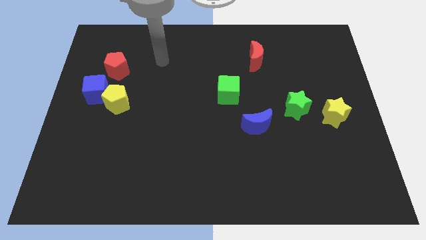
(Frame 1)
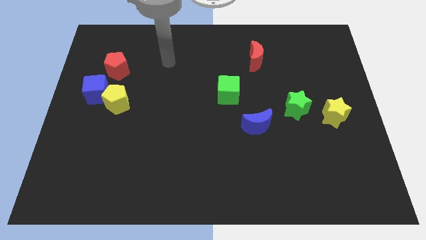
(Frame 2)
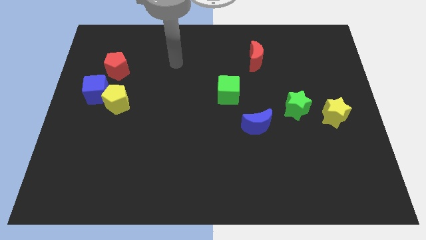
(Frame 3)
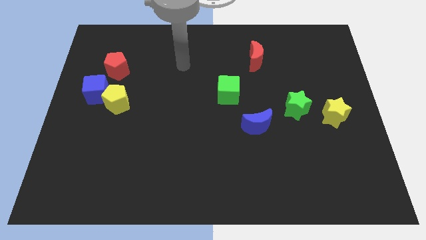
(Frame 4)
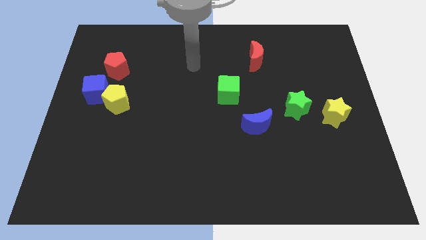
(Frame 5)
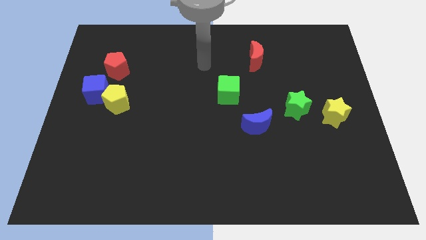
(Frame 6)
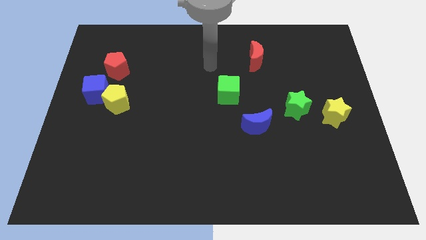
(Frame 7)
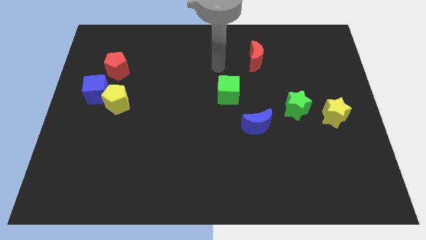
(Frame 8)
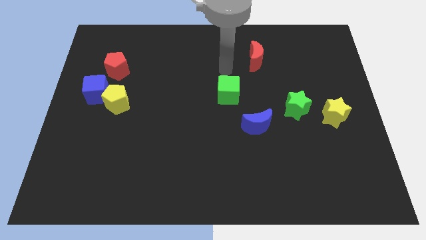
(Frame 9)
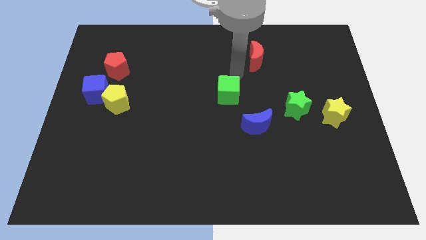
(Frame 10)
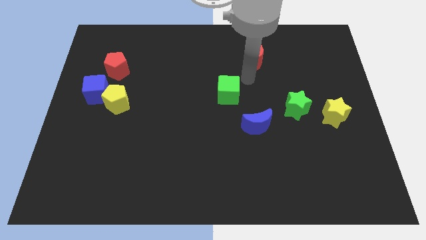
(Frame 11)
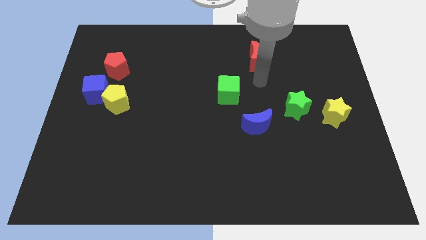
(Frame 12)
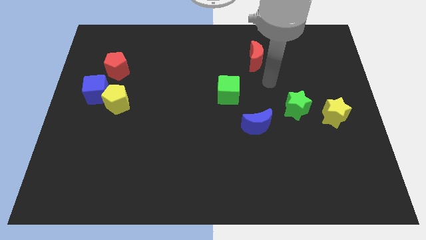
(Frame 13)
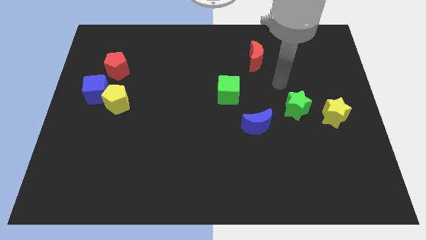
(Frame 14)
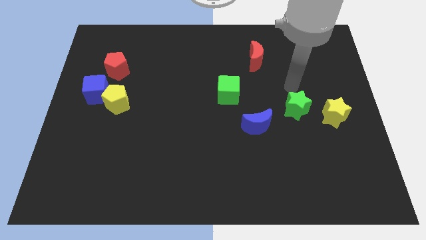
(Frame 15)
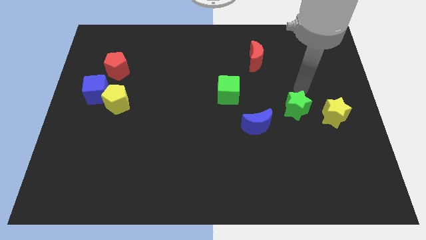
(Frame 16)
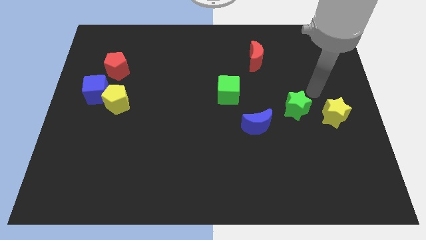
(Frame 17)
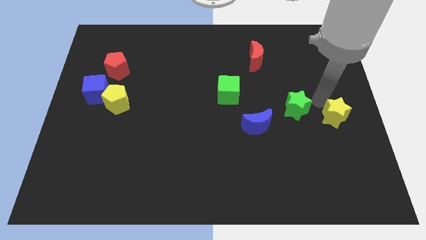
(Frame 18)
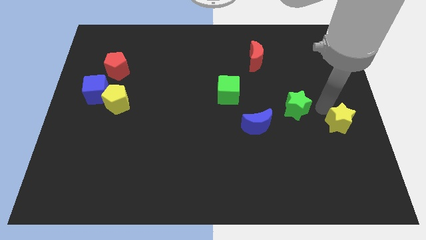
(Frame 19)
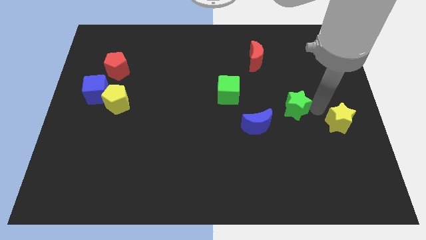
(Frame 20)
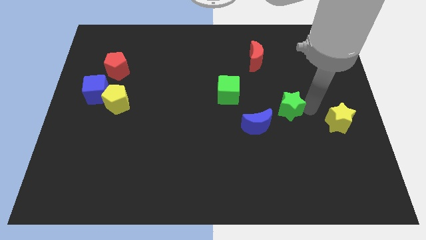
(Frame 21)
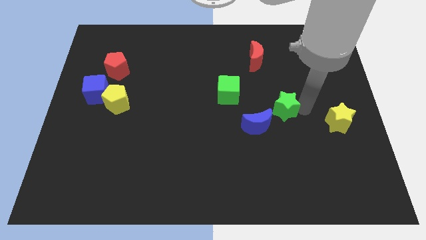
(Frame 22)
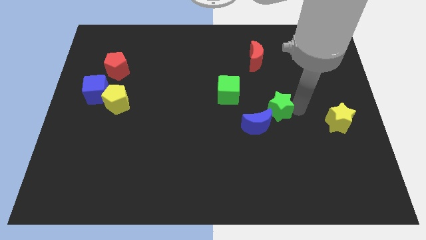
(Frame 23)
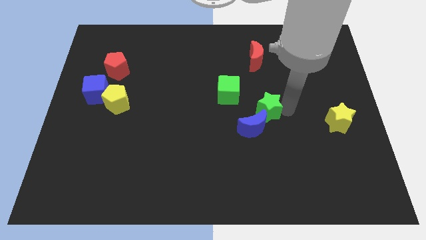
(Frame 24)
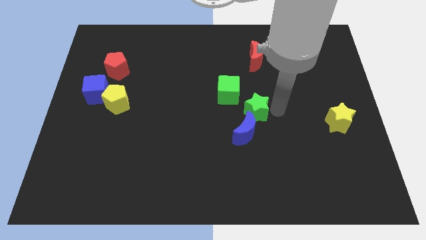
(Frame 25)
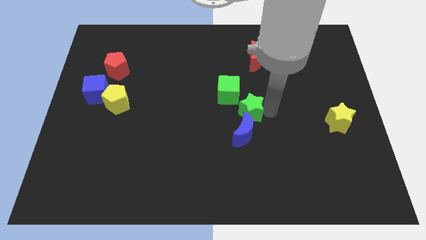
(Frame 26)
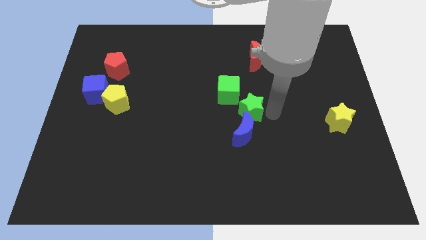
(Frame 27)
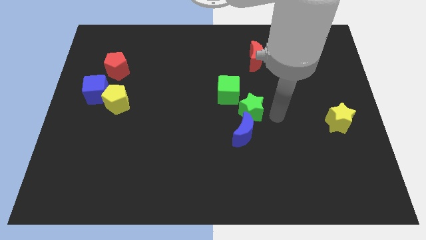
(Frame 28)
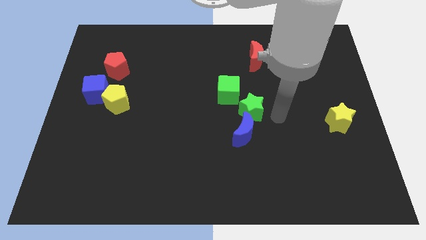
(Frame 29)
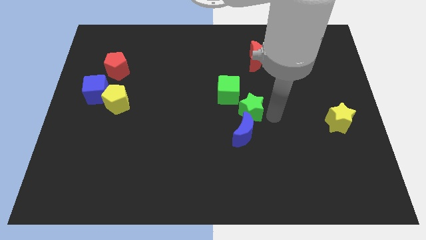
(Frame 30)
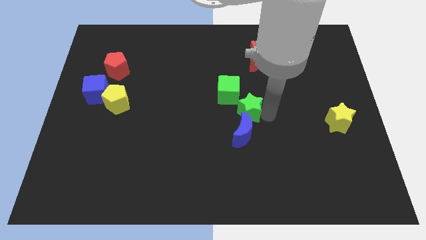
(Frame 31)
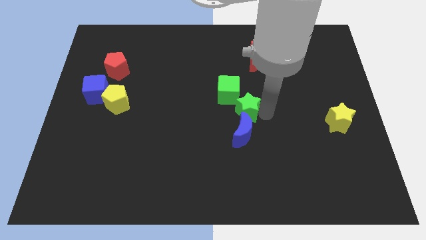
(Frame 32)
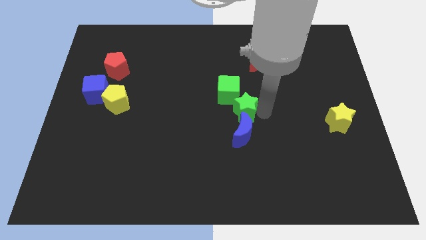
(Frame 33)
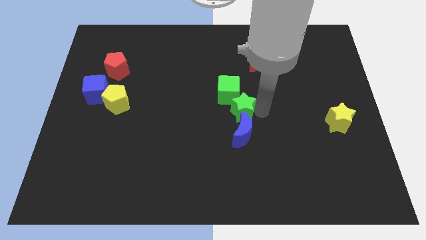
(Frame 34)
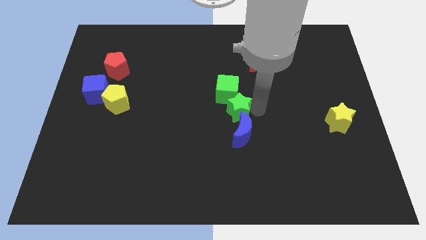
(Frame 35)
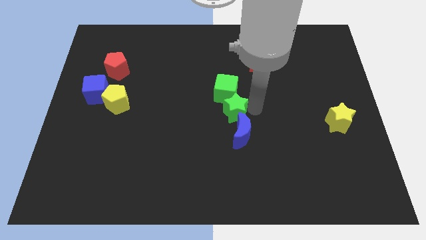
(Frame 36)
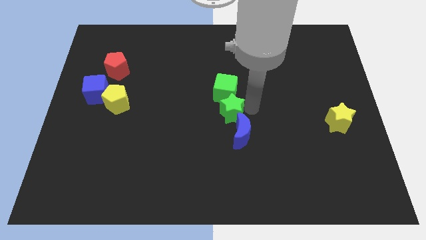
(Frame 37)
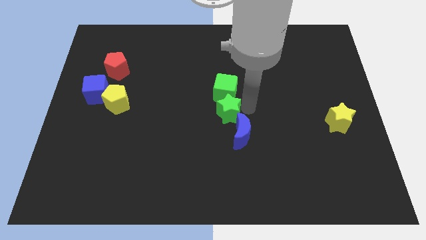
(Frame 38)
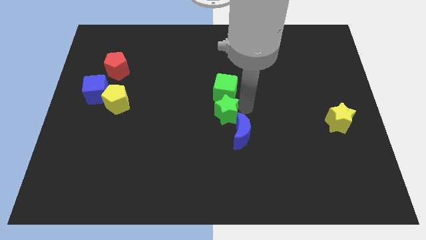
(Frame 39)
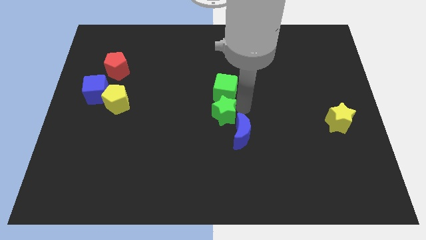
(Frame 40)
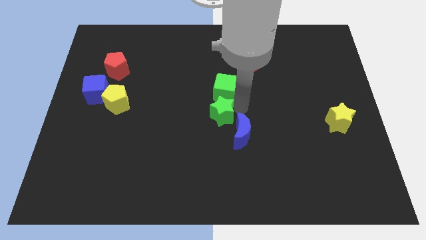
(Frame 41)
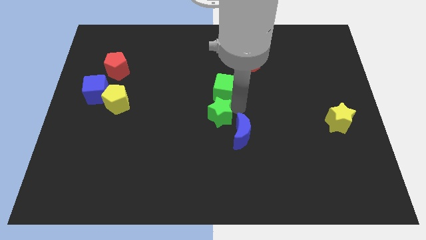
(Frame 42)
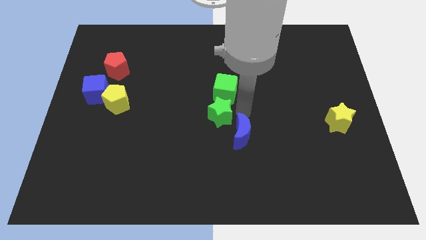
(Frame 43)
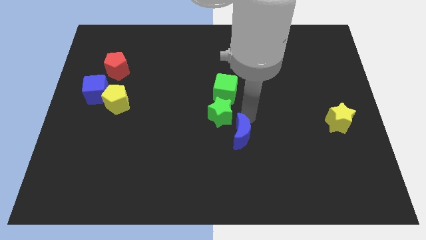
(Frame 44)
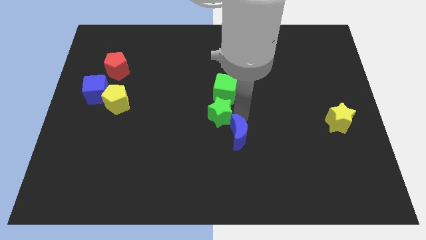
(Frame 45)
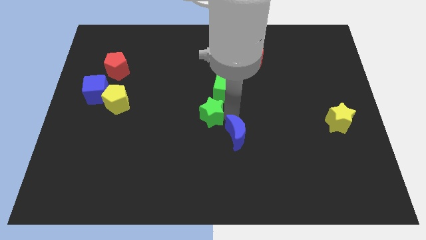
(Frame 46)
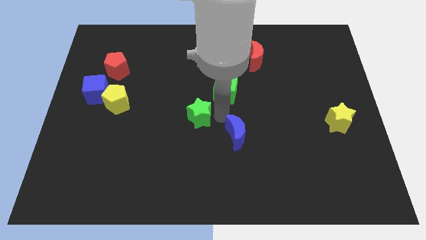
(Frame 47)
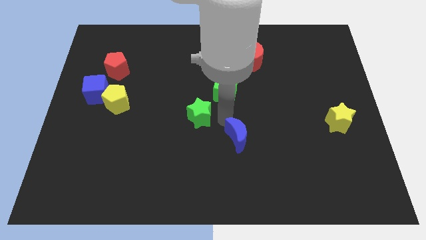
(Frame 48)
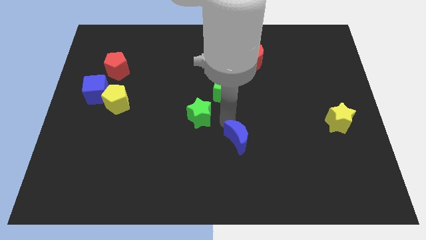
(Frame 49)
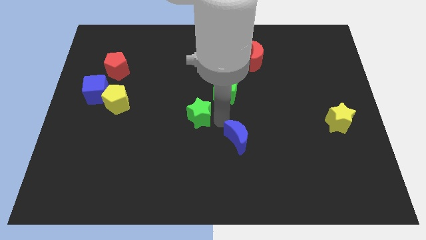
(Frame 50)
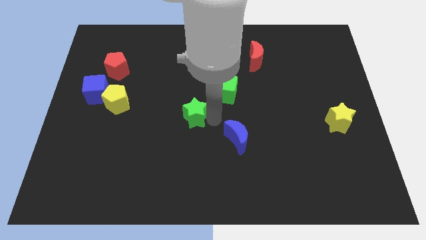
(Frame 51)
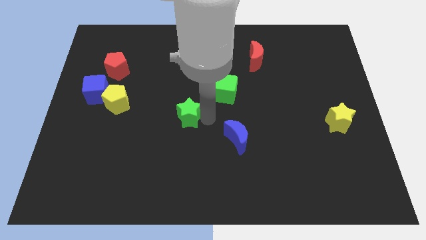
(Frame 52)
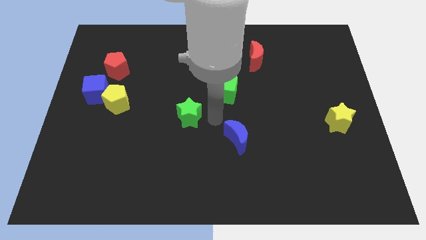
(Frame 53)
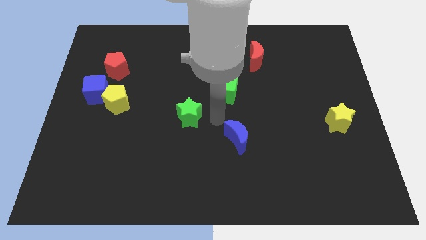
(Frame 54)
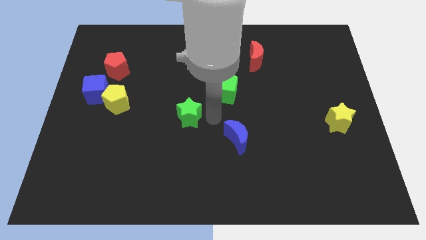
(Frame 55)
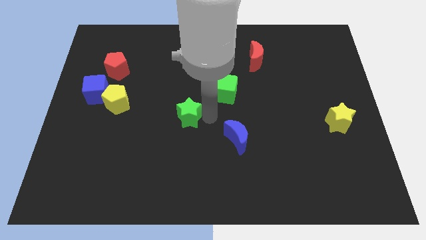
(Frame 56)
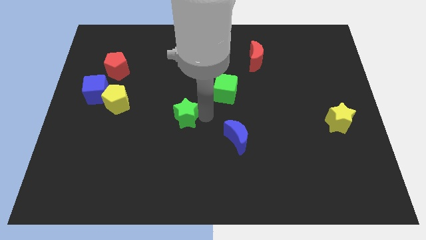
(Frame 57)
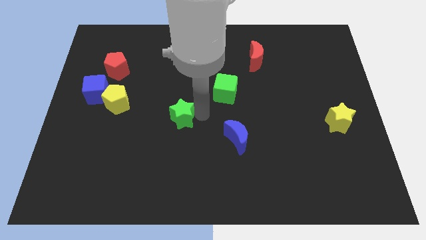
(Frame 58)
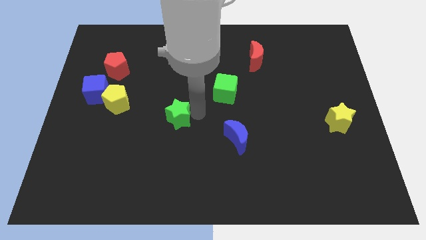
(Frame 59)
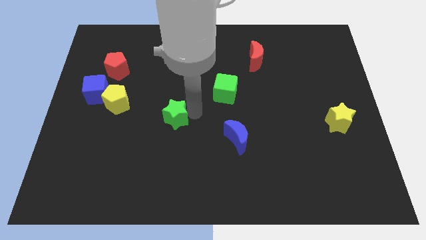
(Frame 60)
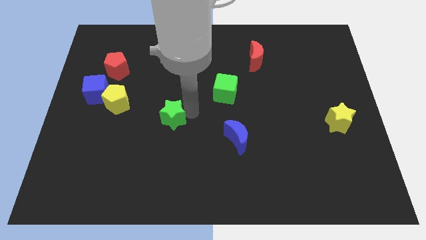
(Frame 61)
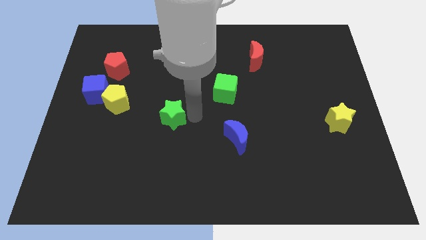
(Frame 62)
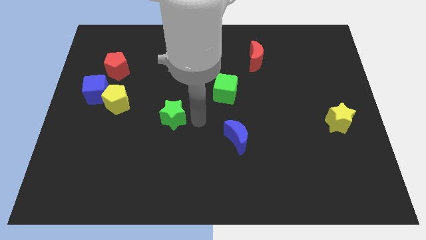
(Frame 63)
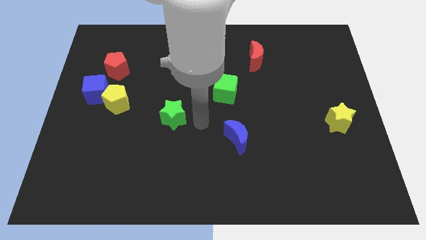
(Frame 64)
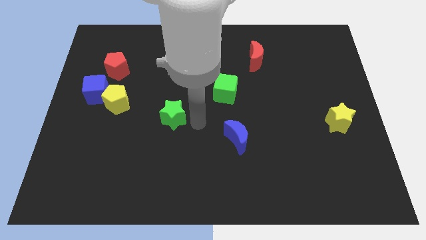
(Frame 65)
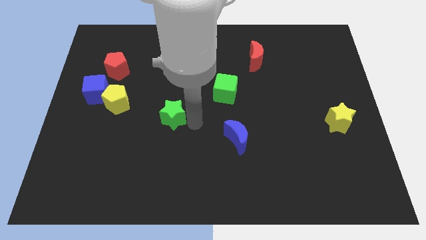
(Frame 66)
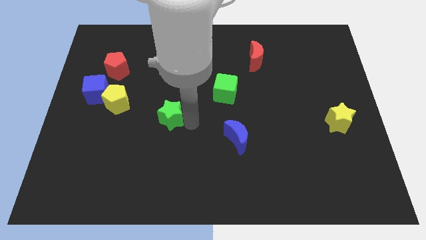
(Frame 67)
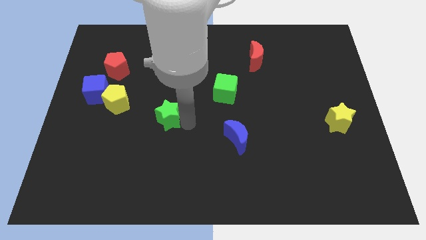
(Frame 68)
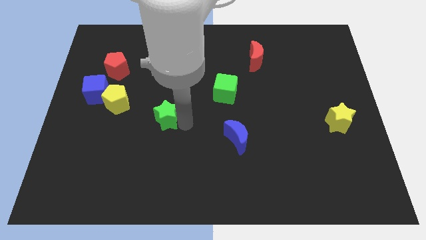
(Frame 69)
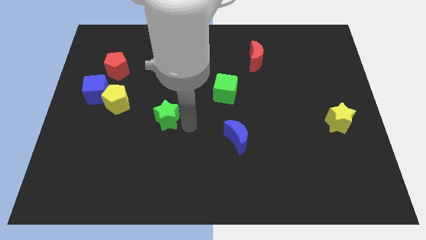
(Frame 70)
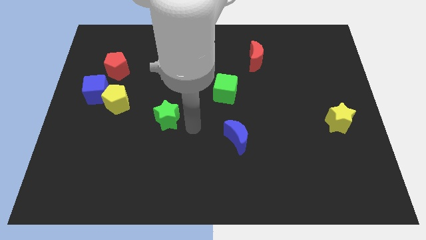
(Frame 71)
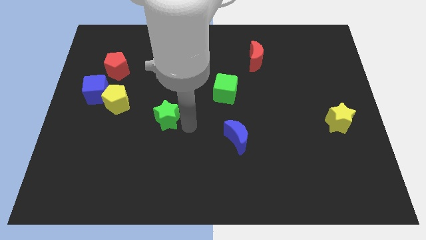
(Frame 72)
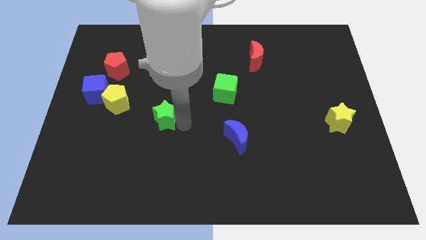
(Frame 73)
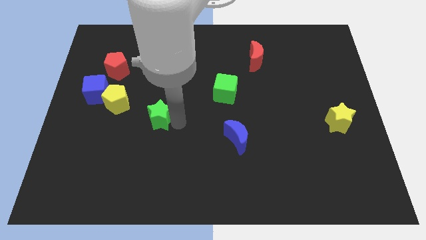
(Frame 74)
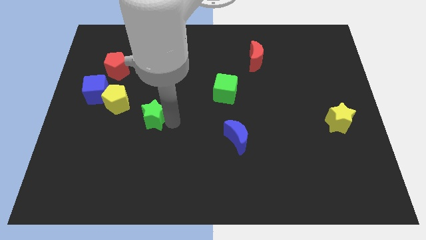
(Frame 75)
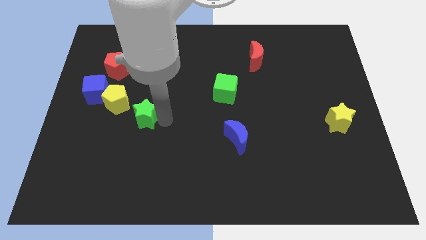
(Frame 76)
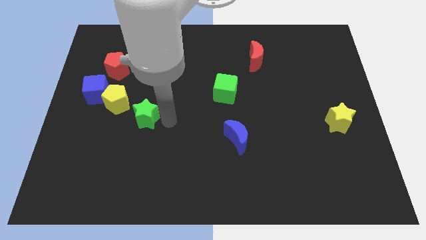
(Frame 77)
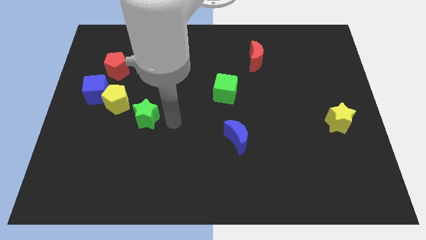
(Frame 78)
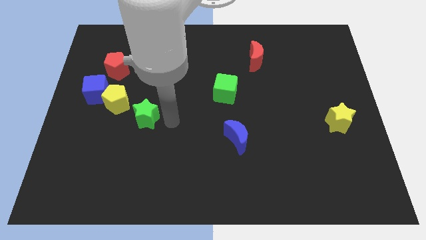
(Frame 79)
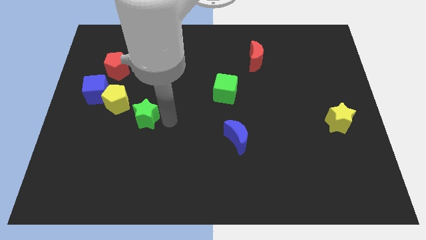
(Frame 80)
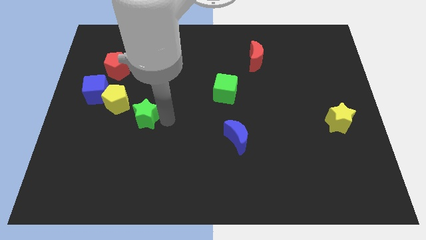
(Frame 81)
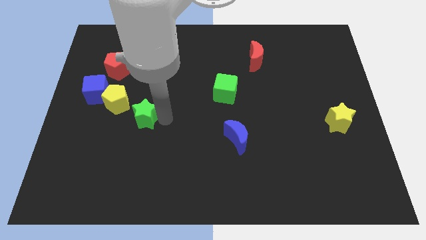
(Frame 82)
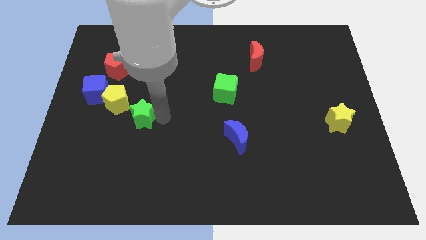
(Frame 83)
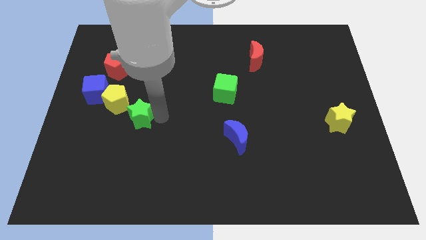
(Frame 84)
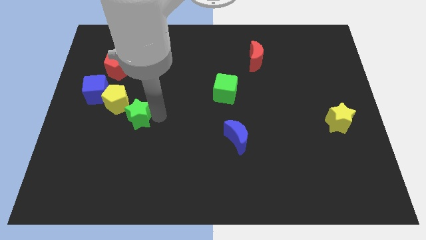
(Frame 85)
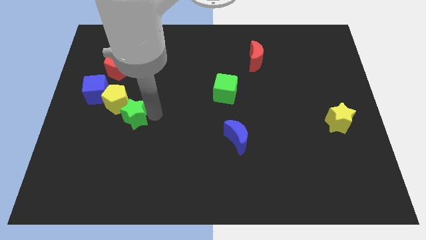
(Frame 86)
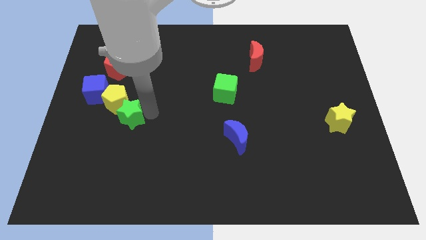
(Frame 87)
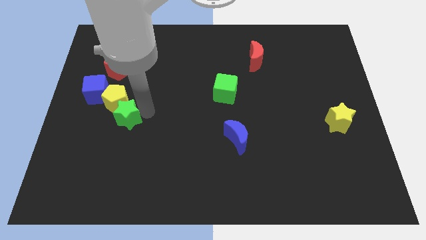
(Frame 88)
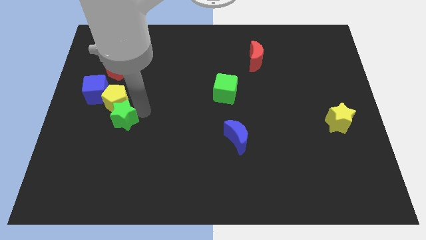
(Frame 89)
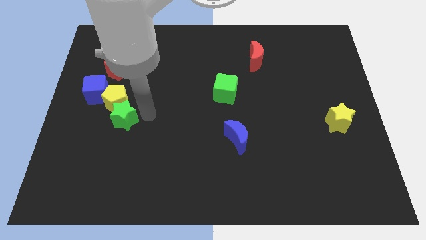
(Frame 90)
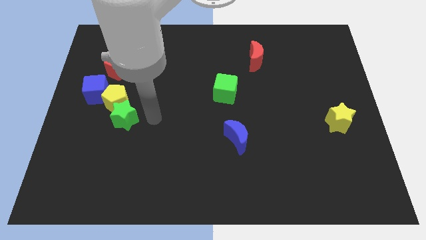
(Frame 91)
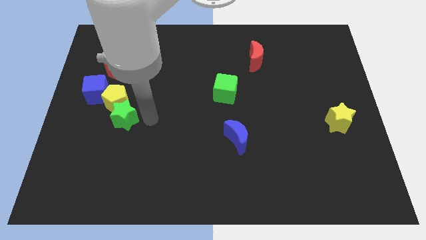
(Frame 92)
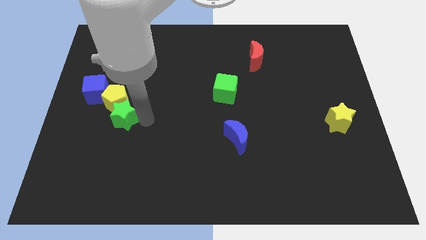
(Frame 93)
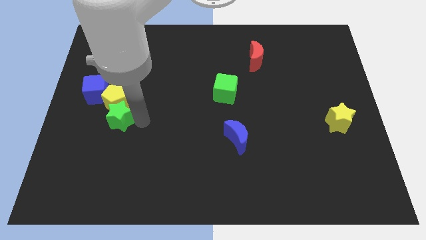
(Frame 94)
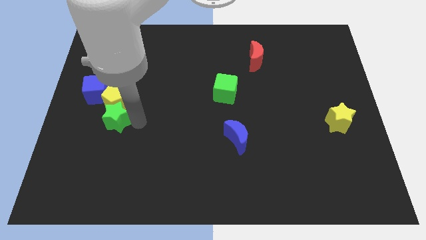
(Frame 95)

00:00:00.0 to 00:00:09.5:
slide the green star to the bottom left of the yellow pentagon
